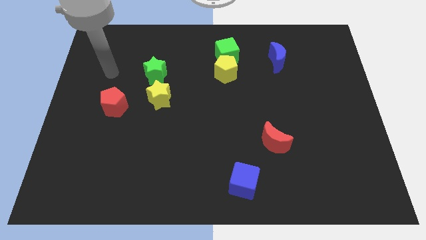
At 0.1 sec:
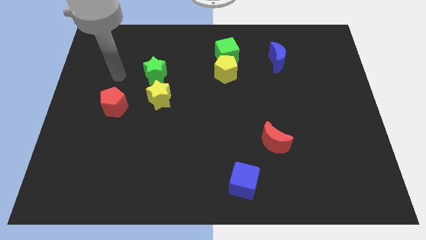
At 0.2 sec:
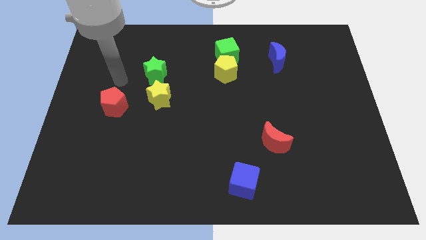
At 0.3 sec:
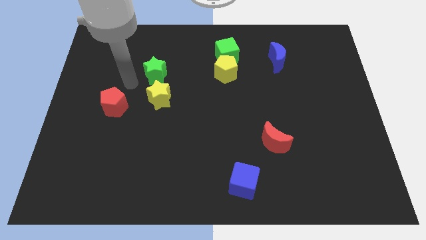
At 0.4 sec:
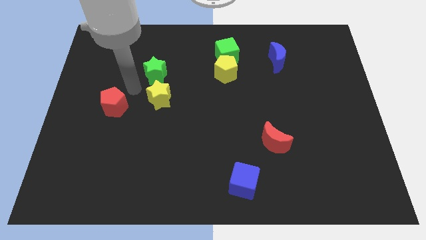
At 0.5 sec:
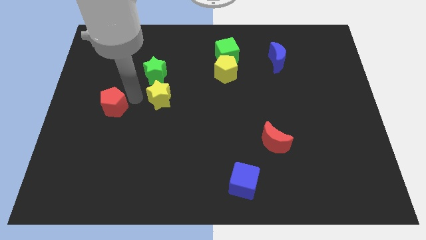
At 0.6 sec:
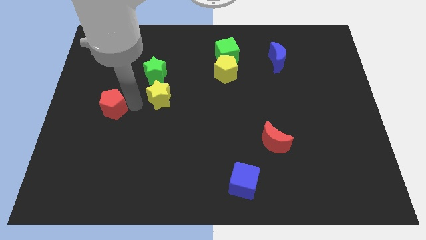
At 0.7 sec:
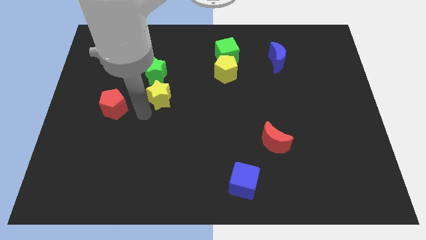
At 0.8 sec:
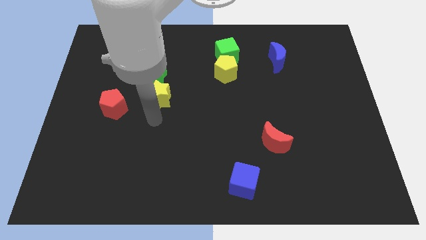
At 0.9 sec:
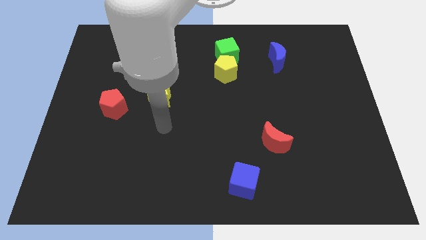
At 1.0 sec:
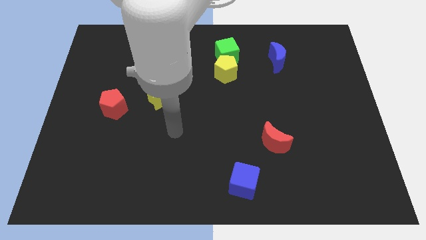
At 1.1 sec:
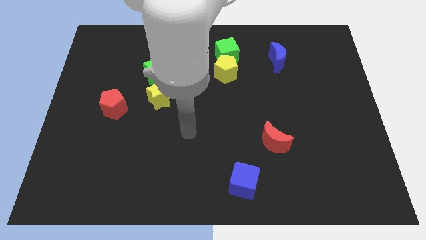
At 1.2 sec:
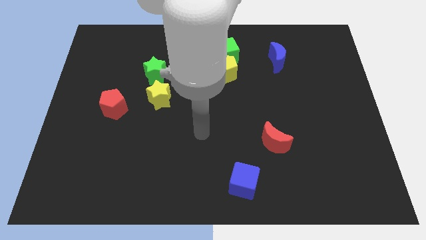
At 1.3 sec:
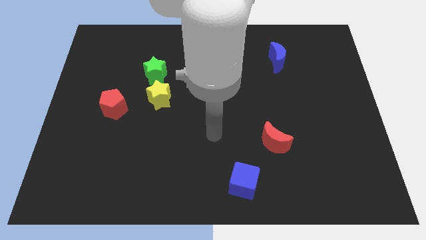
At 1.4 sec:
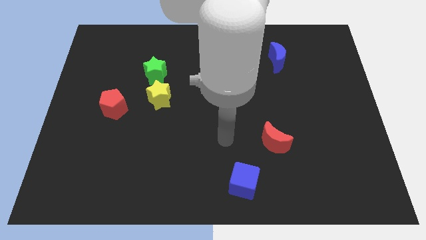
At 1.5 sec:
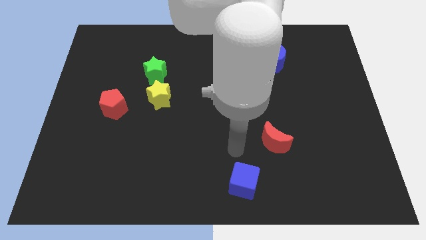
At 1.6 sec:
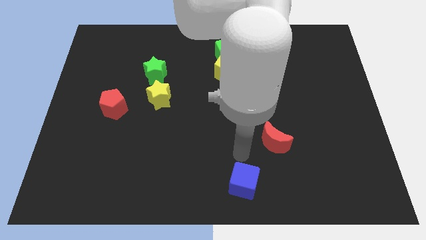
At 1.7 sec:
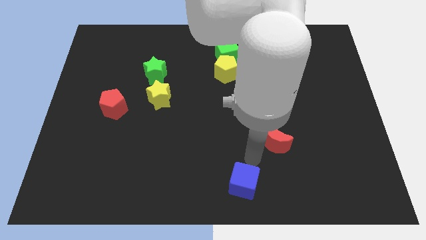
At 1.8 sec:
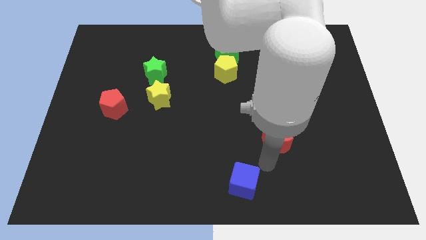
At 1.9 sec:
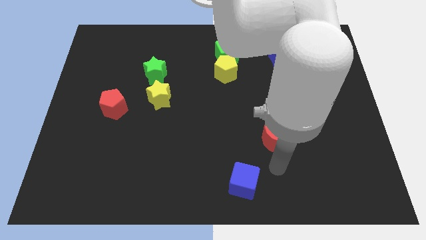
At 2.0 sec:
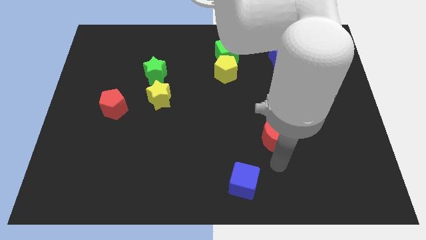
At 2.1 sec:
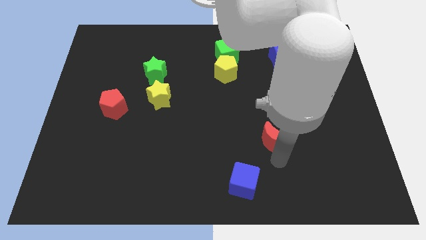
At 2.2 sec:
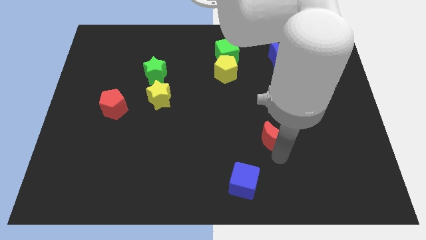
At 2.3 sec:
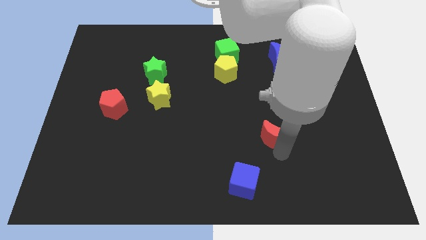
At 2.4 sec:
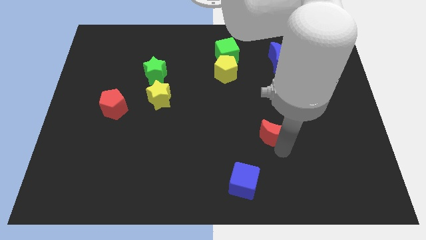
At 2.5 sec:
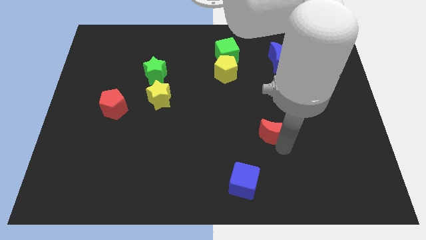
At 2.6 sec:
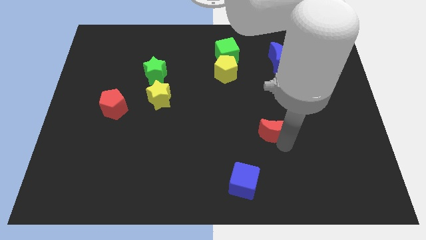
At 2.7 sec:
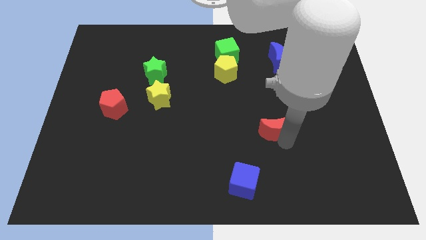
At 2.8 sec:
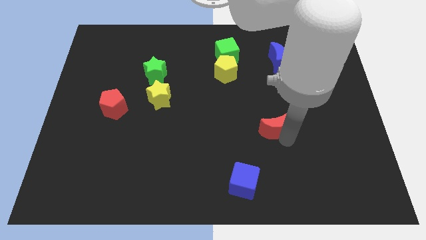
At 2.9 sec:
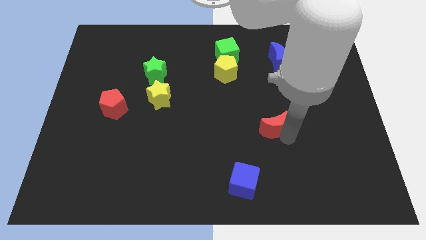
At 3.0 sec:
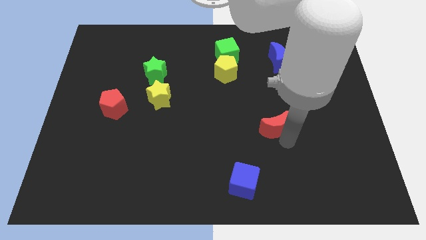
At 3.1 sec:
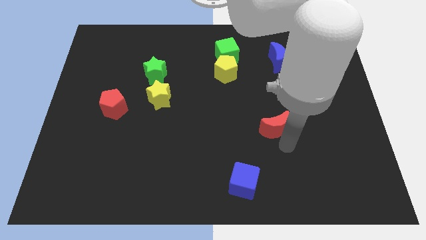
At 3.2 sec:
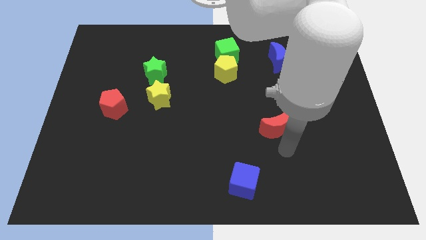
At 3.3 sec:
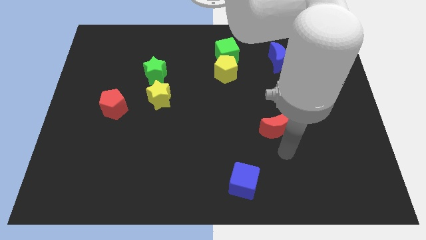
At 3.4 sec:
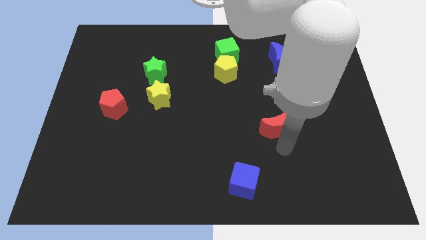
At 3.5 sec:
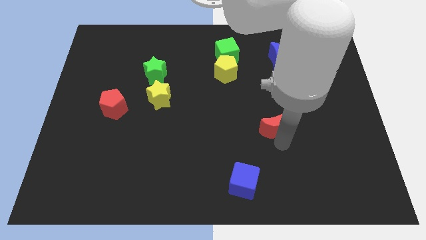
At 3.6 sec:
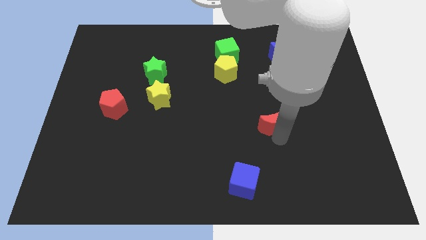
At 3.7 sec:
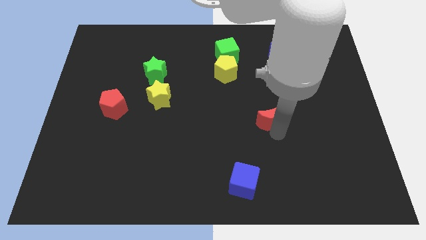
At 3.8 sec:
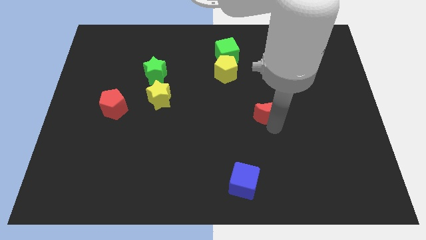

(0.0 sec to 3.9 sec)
slightly push the red moon upwards

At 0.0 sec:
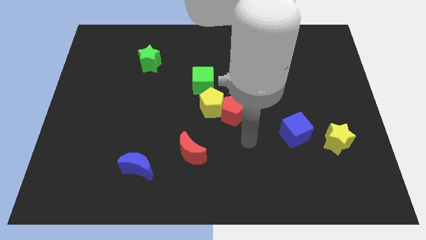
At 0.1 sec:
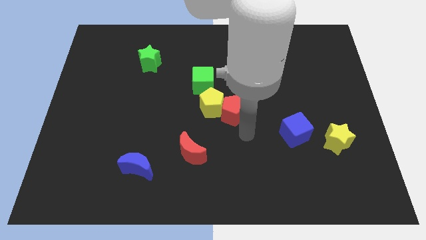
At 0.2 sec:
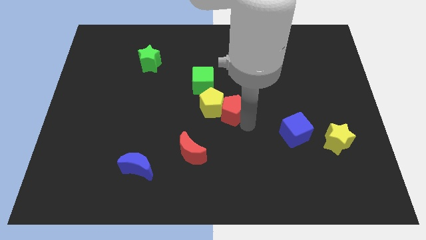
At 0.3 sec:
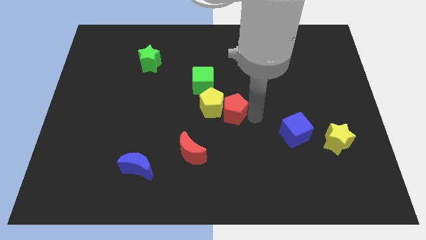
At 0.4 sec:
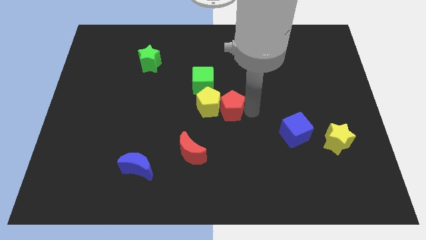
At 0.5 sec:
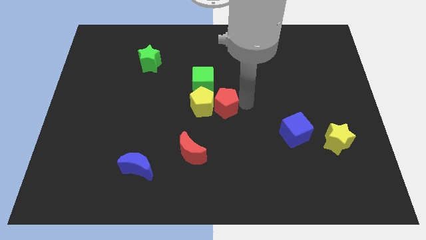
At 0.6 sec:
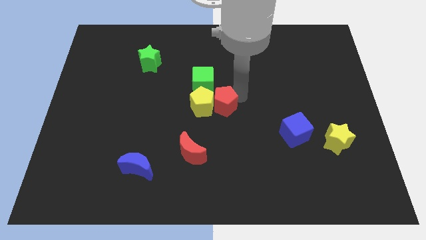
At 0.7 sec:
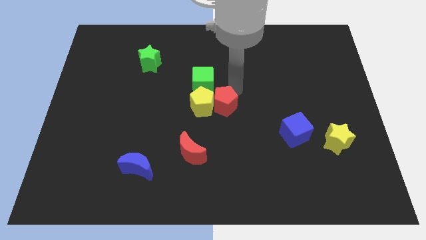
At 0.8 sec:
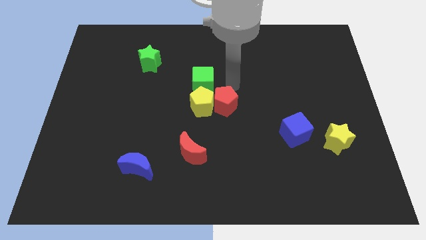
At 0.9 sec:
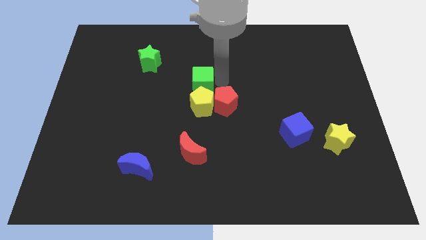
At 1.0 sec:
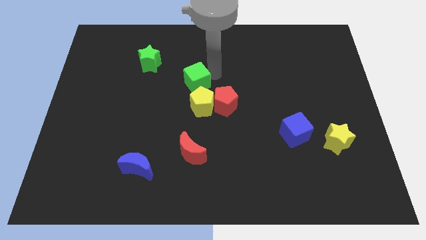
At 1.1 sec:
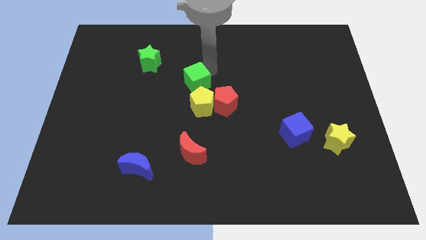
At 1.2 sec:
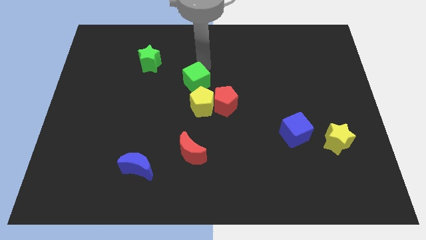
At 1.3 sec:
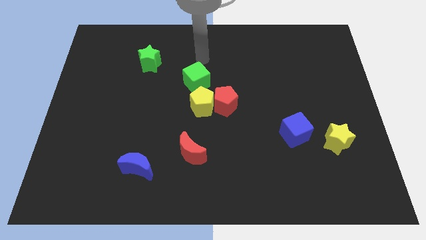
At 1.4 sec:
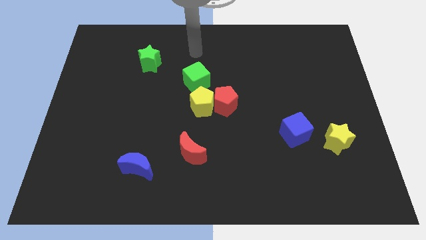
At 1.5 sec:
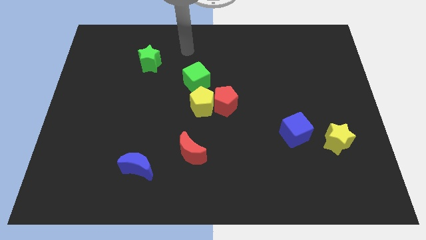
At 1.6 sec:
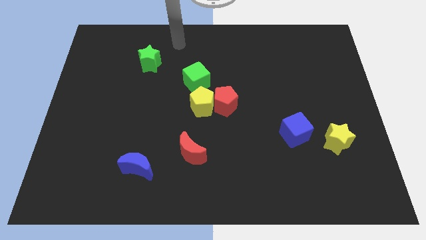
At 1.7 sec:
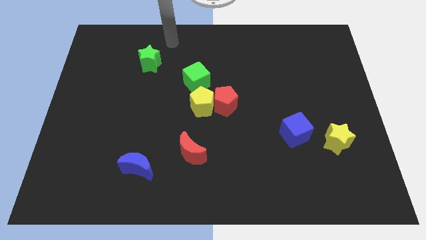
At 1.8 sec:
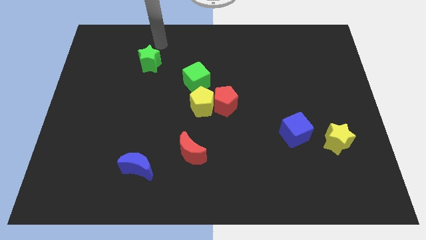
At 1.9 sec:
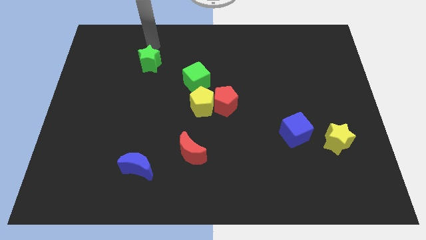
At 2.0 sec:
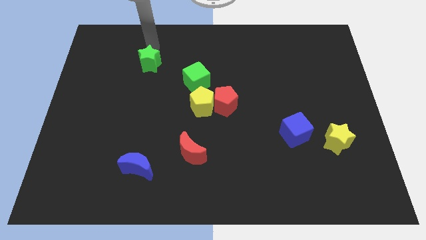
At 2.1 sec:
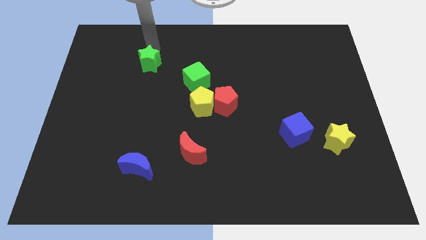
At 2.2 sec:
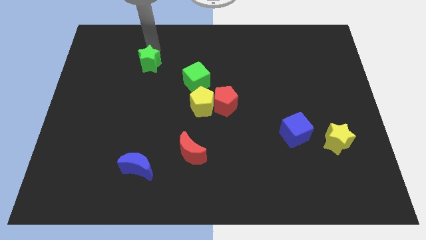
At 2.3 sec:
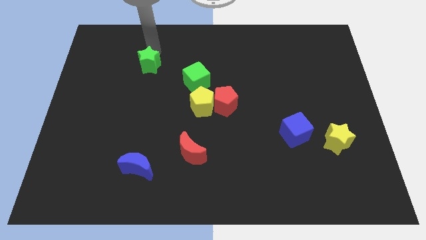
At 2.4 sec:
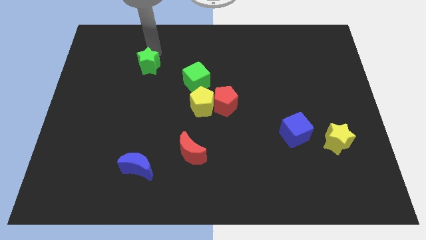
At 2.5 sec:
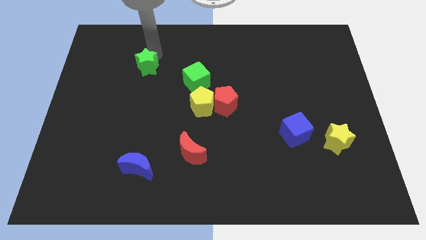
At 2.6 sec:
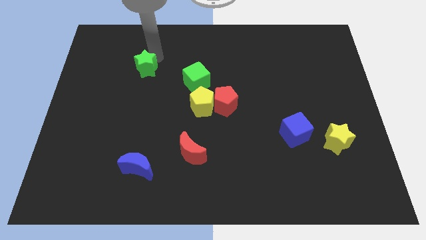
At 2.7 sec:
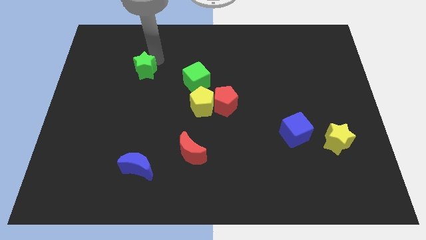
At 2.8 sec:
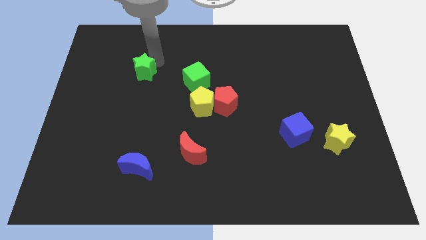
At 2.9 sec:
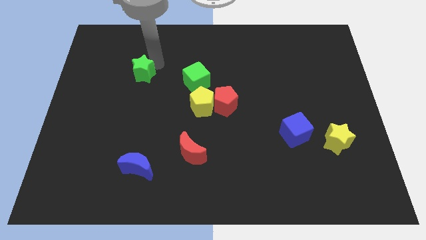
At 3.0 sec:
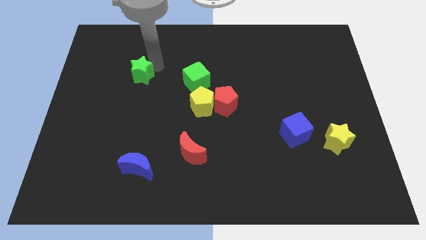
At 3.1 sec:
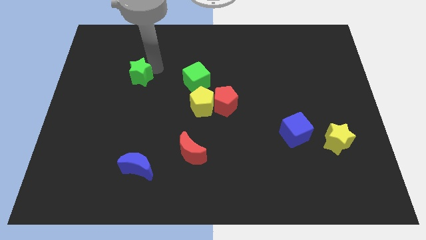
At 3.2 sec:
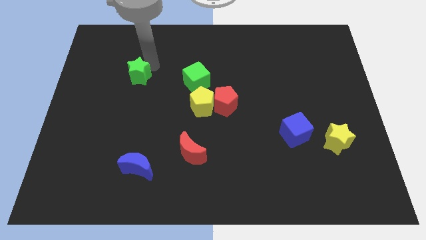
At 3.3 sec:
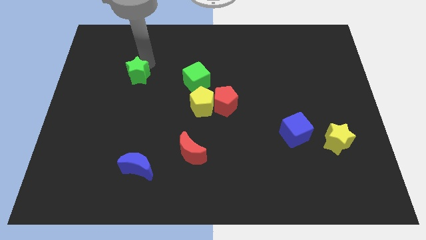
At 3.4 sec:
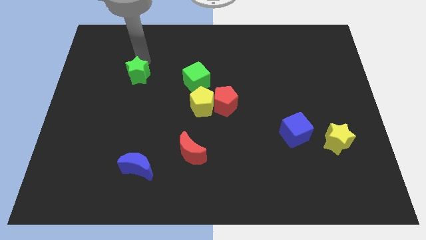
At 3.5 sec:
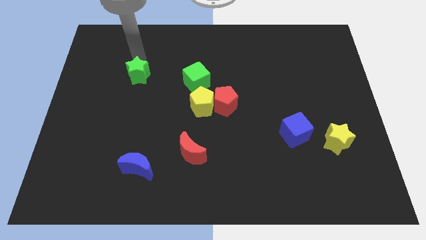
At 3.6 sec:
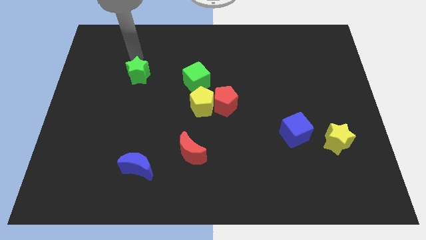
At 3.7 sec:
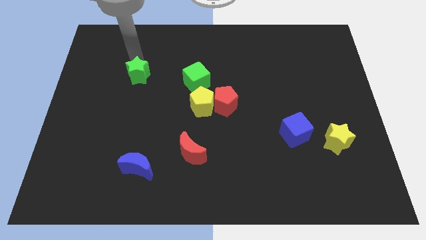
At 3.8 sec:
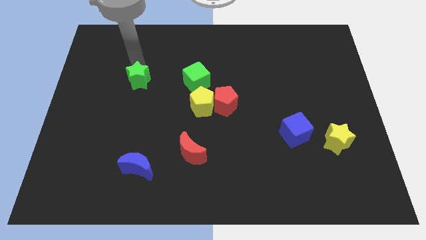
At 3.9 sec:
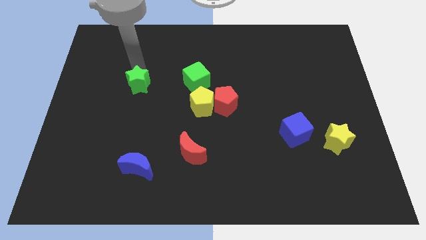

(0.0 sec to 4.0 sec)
push the green star downwards a little bit
